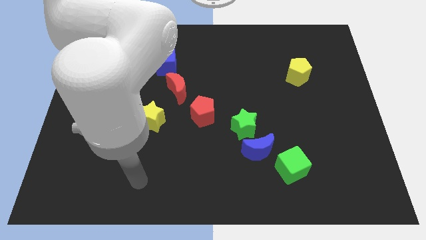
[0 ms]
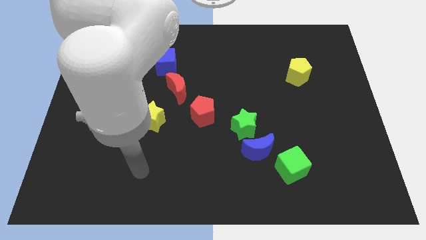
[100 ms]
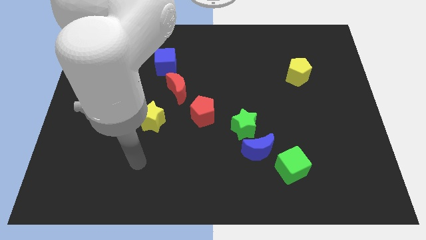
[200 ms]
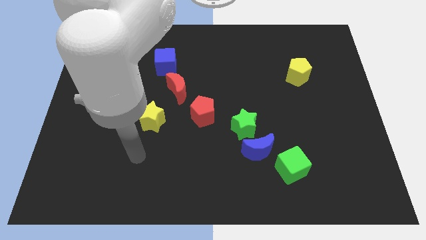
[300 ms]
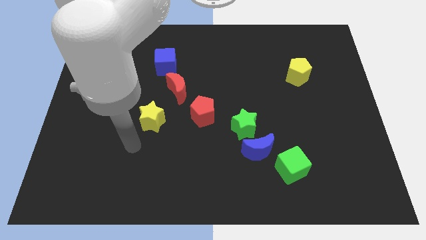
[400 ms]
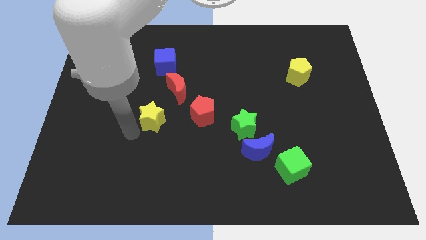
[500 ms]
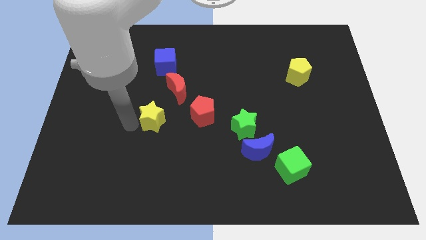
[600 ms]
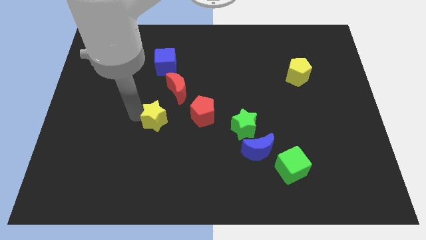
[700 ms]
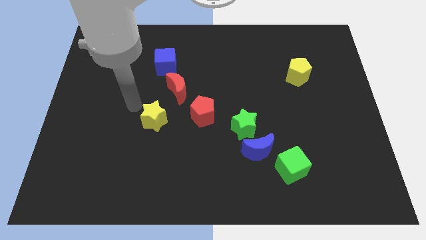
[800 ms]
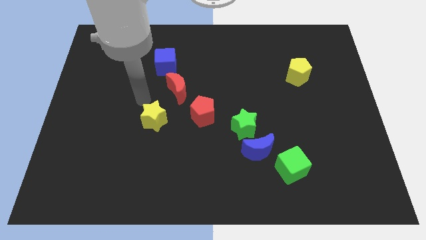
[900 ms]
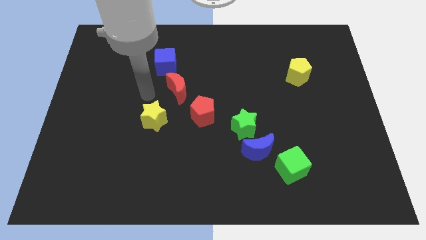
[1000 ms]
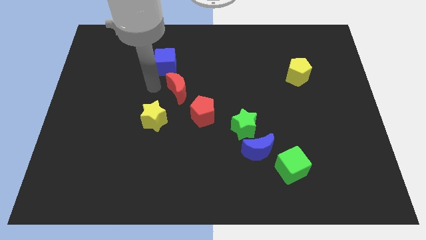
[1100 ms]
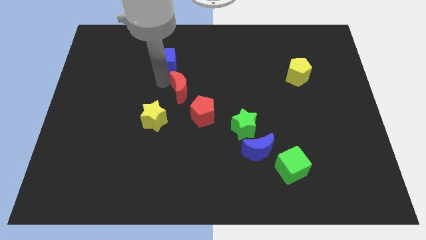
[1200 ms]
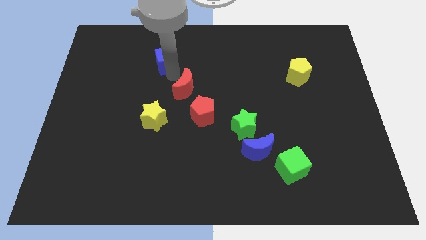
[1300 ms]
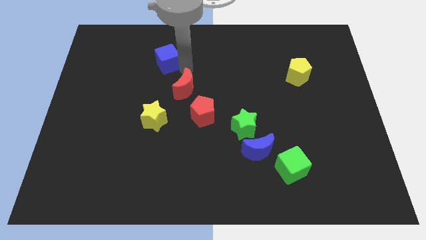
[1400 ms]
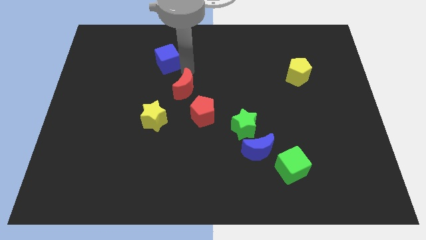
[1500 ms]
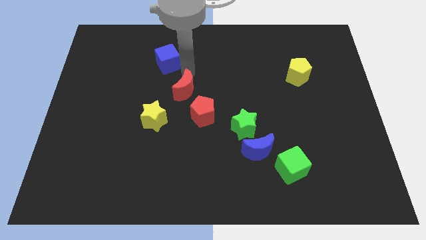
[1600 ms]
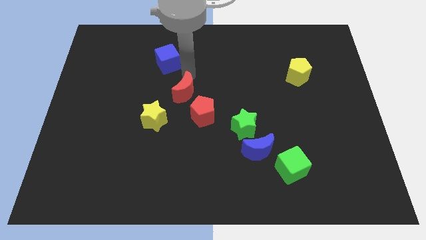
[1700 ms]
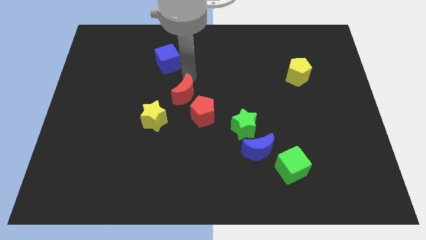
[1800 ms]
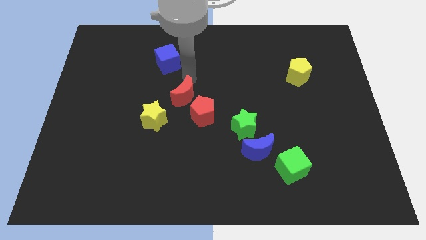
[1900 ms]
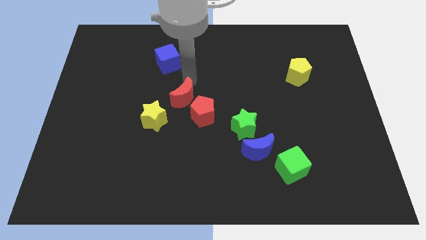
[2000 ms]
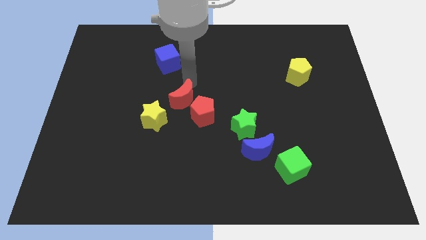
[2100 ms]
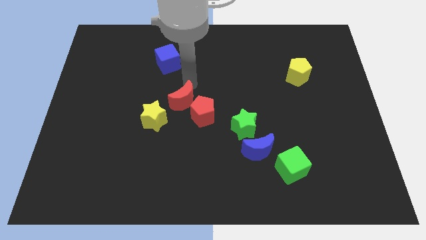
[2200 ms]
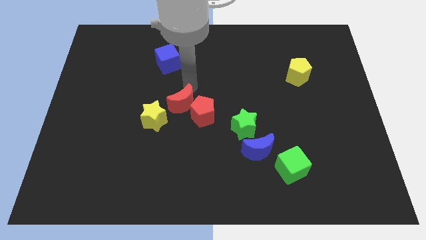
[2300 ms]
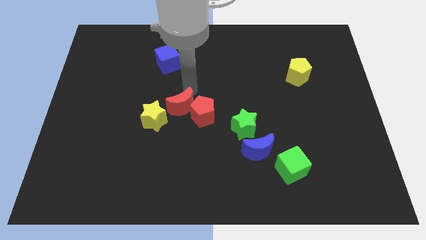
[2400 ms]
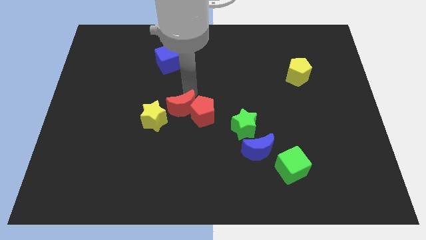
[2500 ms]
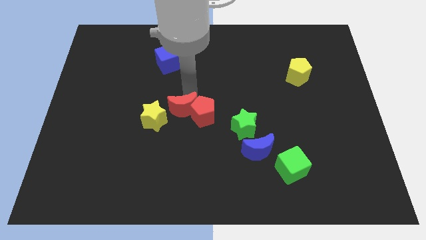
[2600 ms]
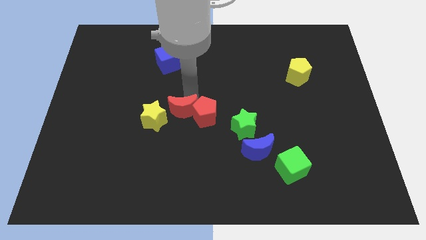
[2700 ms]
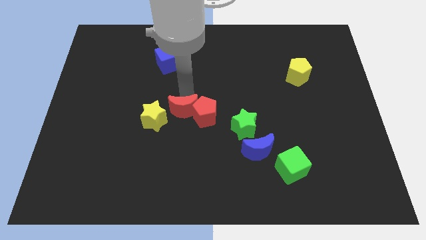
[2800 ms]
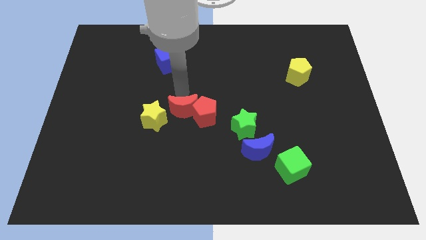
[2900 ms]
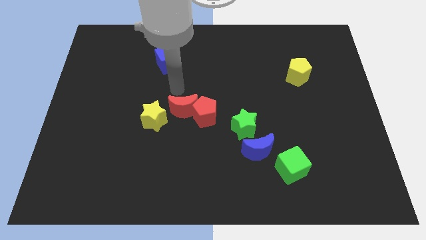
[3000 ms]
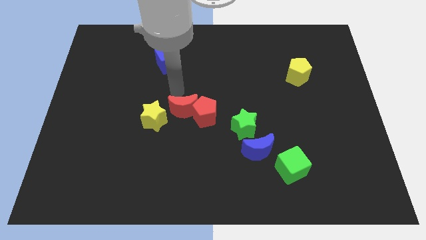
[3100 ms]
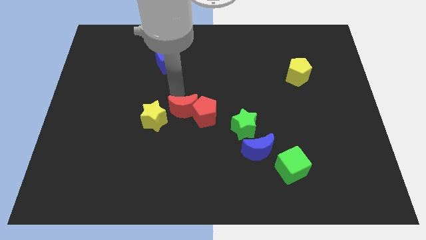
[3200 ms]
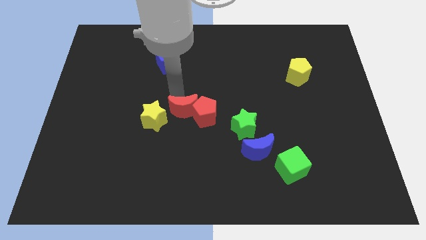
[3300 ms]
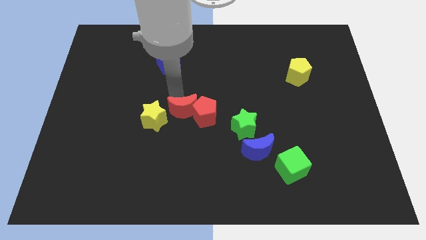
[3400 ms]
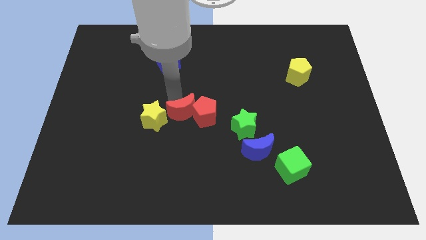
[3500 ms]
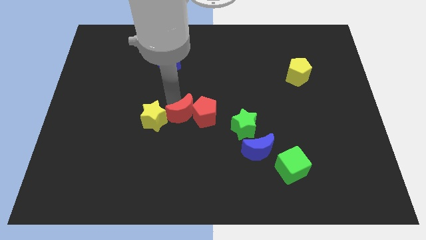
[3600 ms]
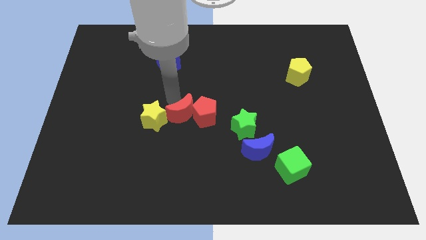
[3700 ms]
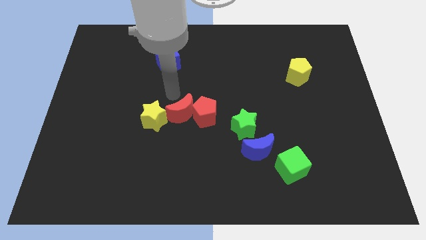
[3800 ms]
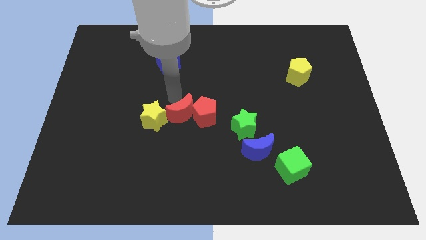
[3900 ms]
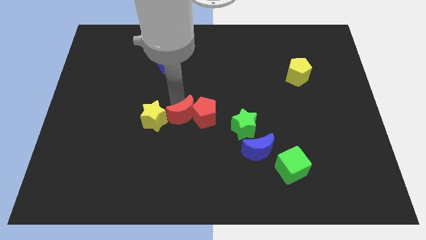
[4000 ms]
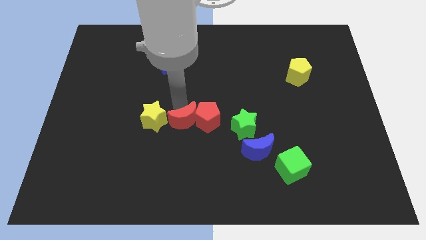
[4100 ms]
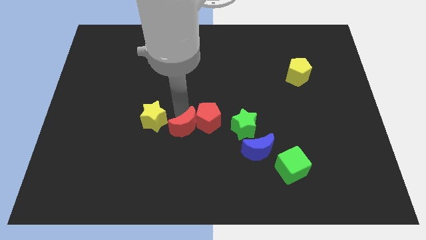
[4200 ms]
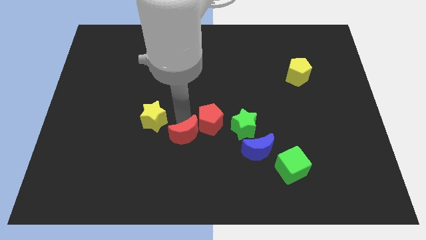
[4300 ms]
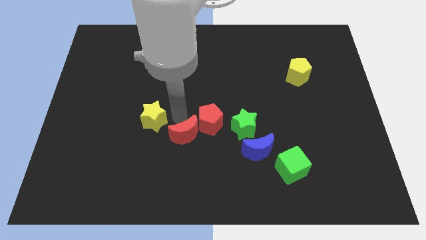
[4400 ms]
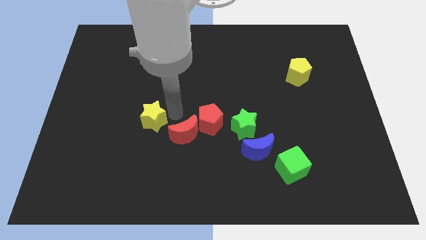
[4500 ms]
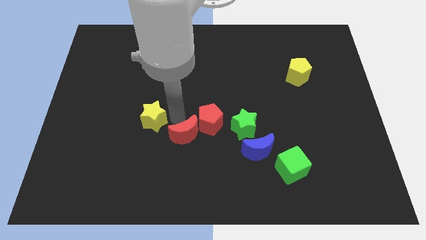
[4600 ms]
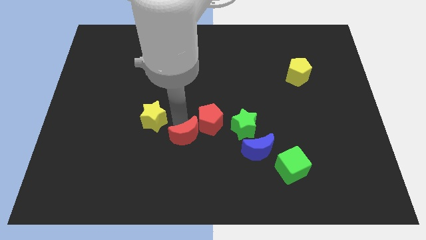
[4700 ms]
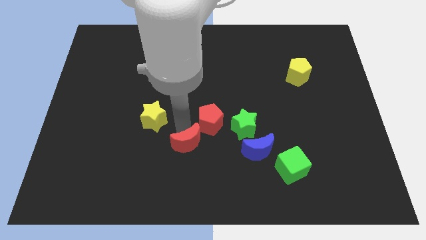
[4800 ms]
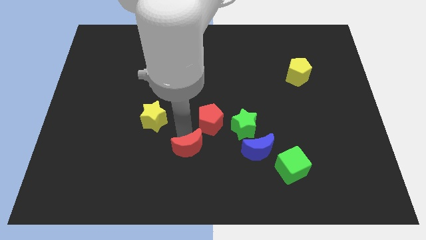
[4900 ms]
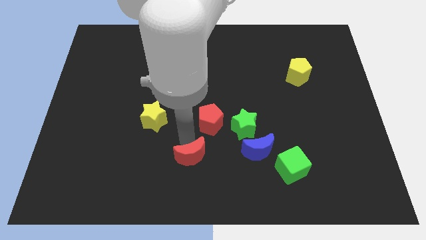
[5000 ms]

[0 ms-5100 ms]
push the red moon to the bottom

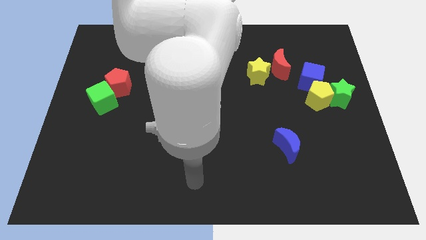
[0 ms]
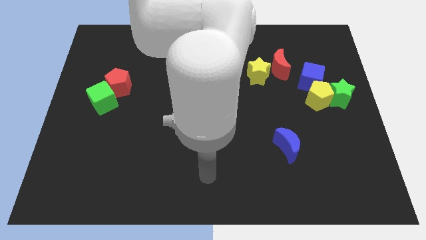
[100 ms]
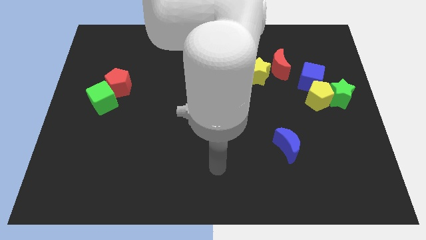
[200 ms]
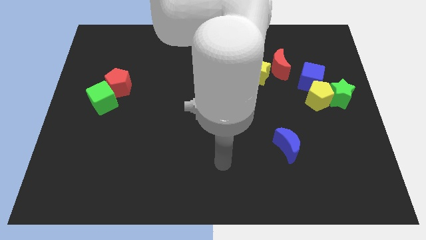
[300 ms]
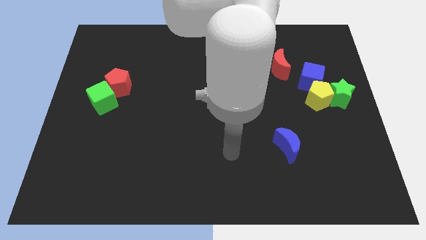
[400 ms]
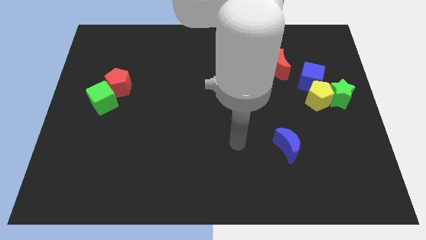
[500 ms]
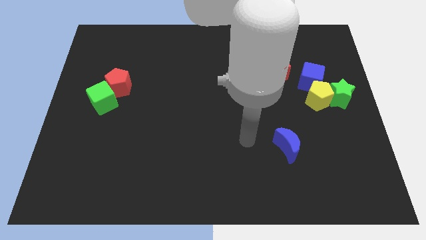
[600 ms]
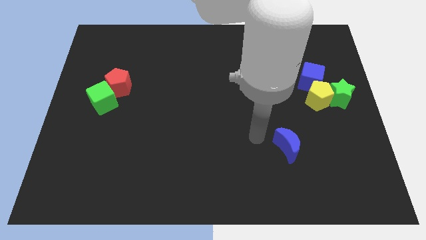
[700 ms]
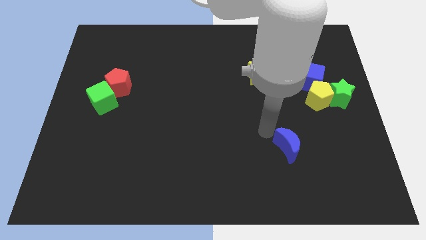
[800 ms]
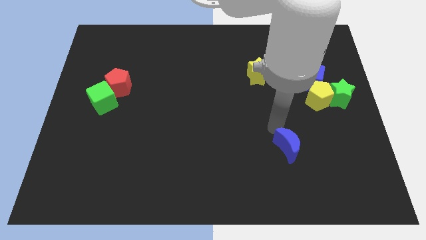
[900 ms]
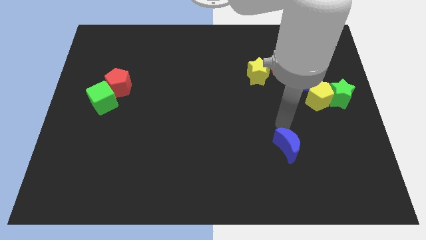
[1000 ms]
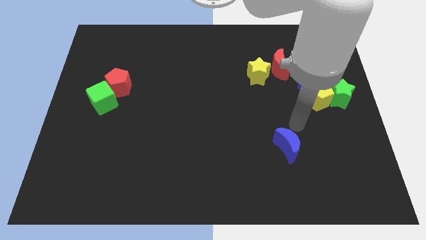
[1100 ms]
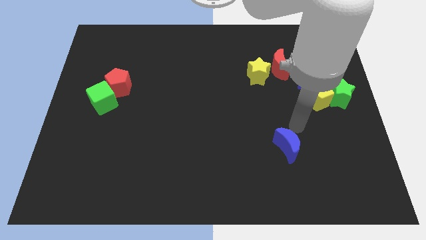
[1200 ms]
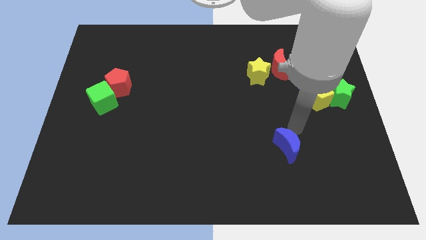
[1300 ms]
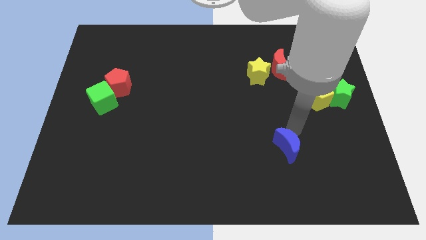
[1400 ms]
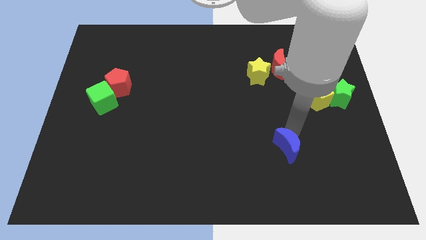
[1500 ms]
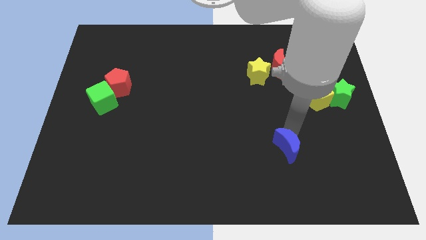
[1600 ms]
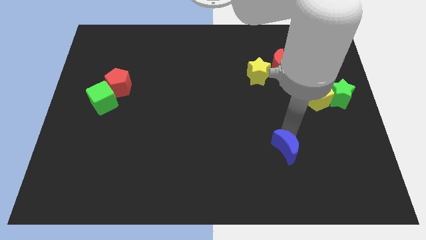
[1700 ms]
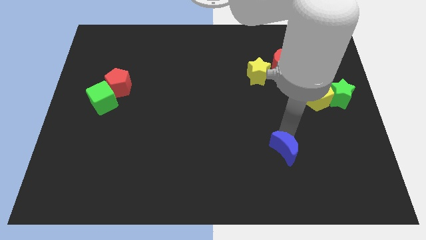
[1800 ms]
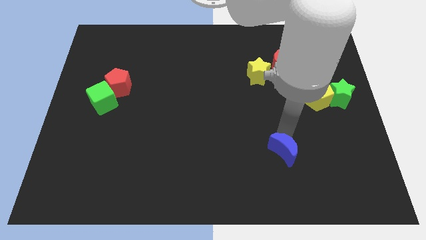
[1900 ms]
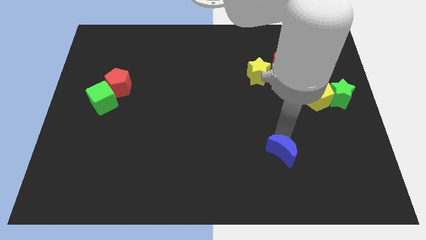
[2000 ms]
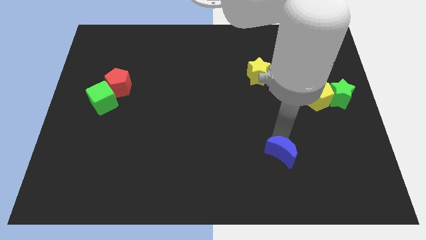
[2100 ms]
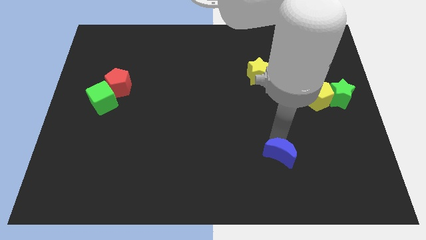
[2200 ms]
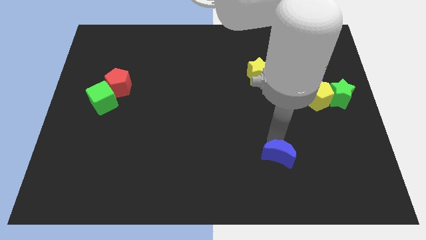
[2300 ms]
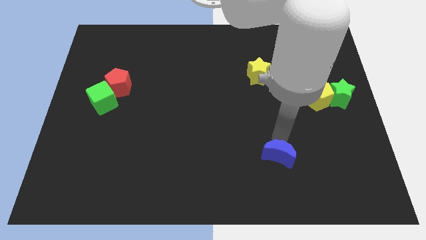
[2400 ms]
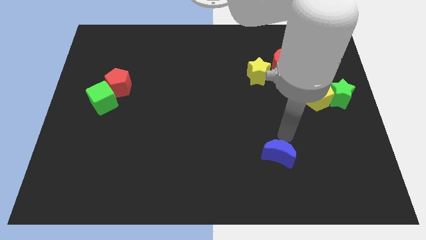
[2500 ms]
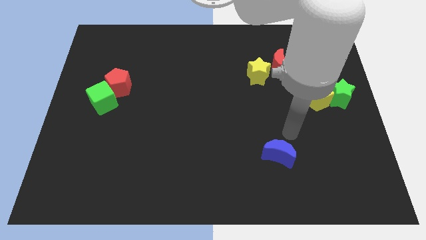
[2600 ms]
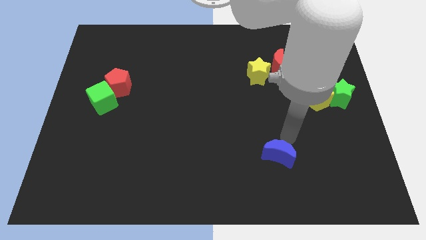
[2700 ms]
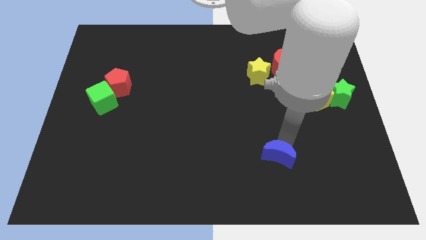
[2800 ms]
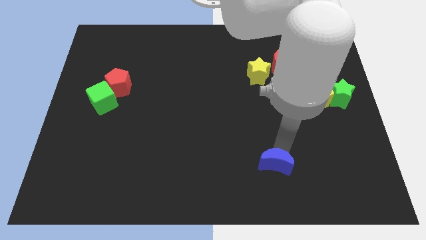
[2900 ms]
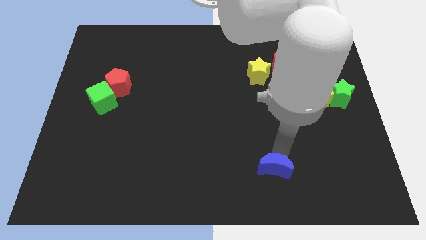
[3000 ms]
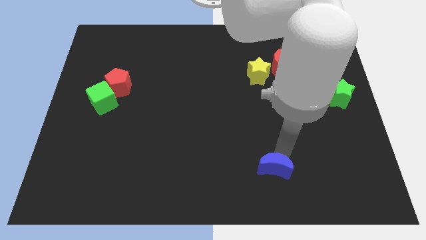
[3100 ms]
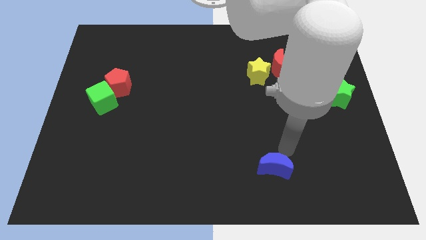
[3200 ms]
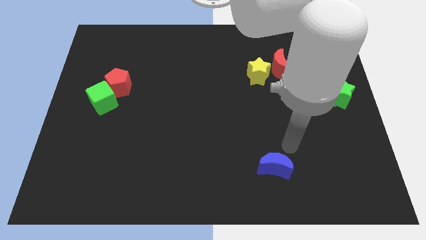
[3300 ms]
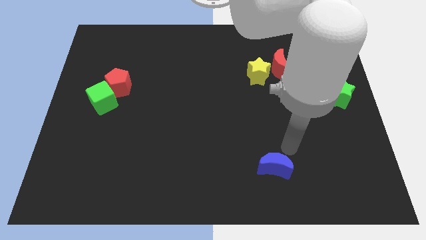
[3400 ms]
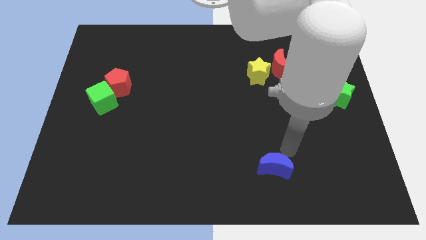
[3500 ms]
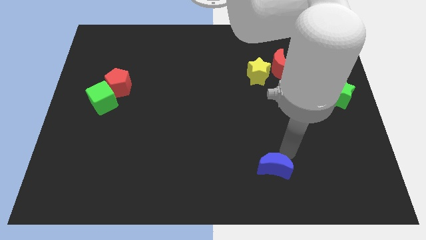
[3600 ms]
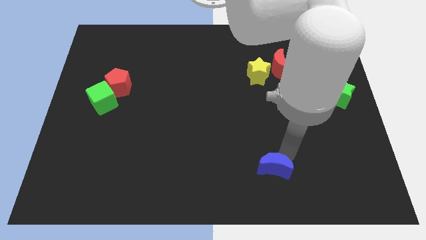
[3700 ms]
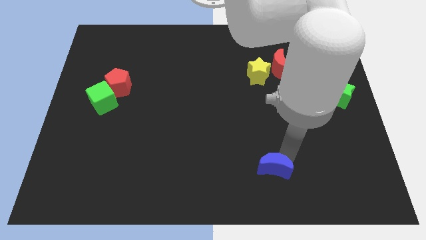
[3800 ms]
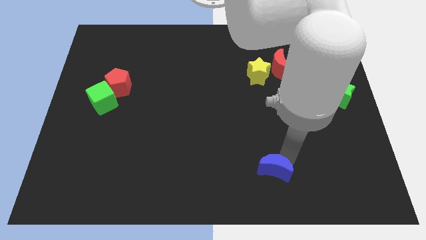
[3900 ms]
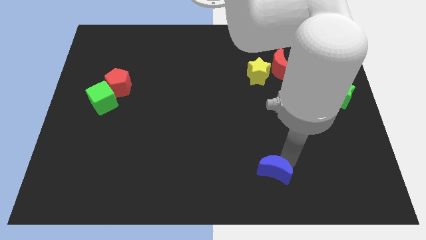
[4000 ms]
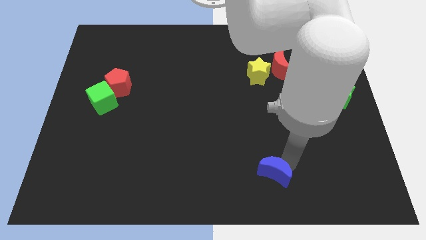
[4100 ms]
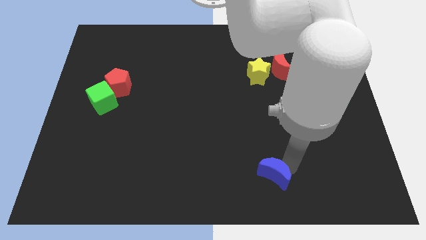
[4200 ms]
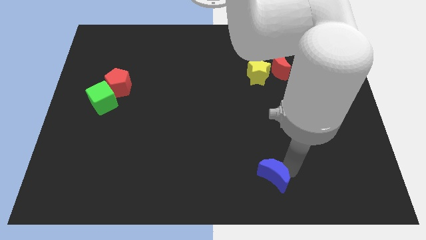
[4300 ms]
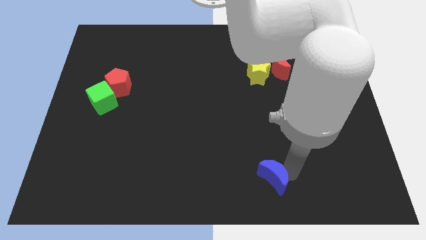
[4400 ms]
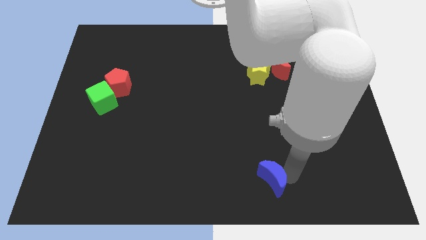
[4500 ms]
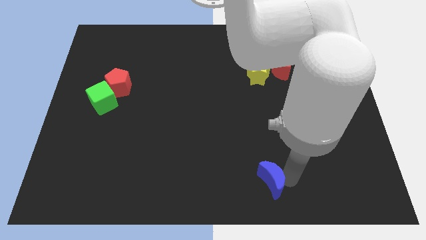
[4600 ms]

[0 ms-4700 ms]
push the blue moon to the bottom
